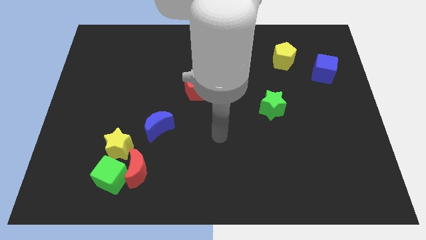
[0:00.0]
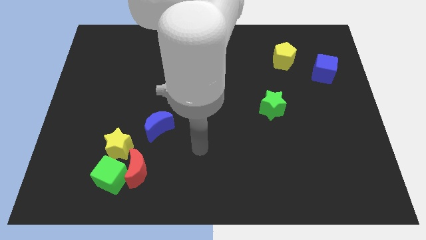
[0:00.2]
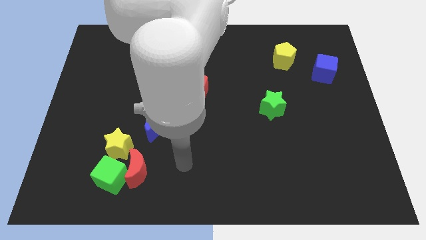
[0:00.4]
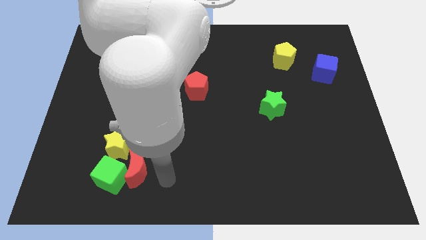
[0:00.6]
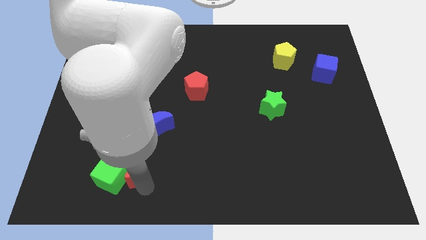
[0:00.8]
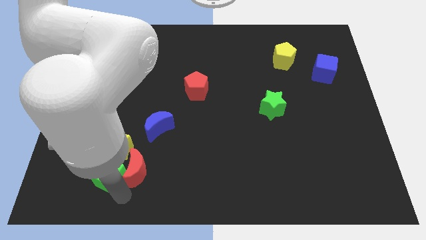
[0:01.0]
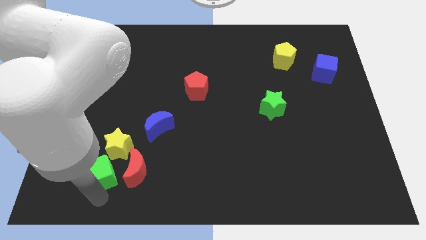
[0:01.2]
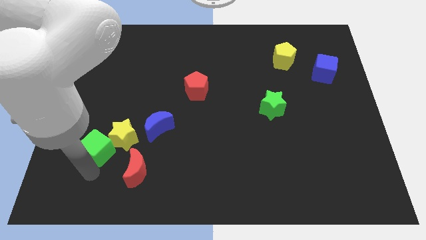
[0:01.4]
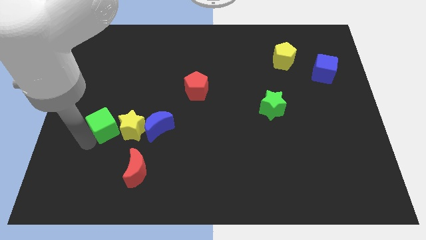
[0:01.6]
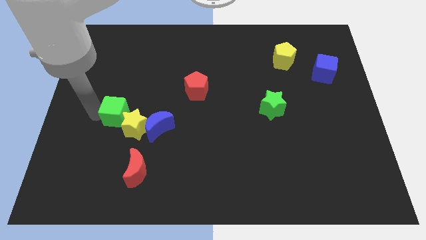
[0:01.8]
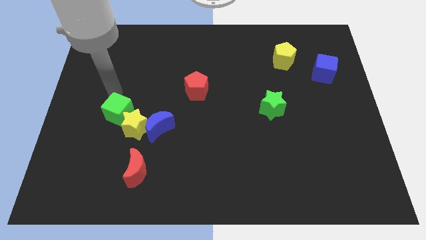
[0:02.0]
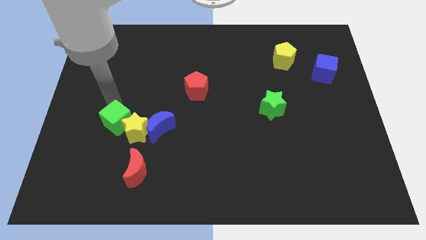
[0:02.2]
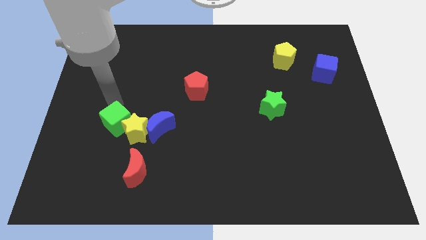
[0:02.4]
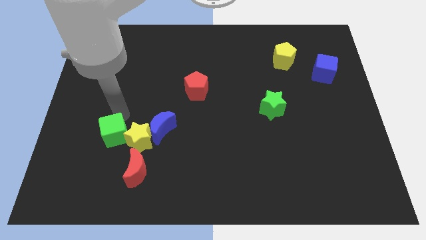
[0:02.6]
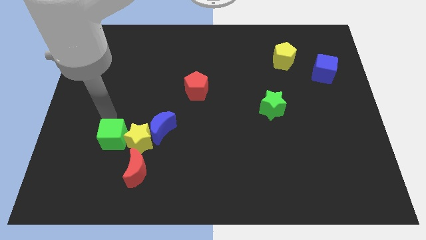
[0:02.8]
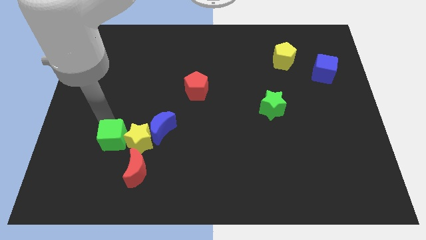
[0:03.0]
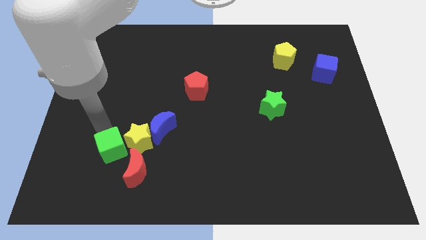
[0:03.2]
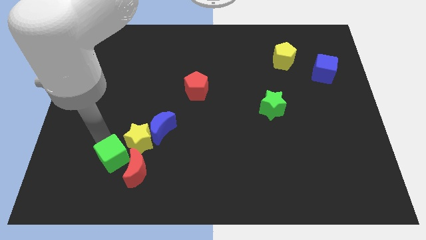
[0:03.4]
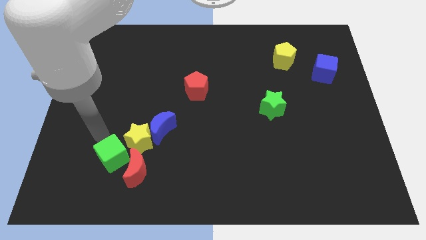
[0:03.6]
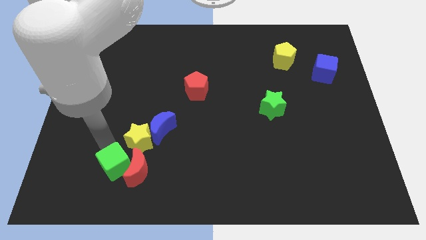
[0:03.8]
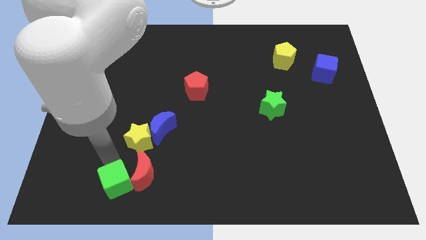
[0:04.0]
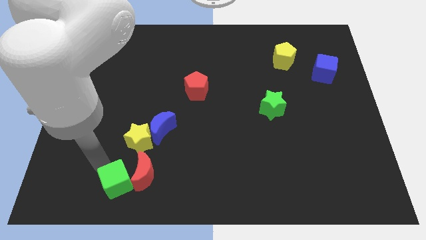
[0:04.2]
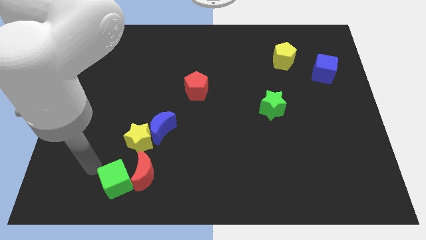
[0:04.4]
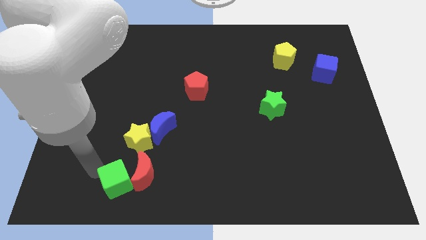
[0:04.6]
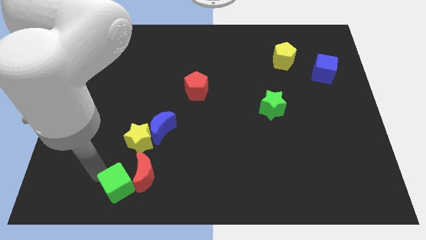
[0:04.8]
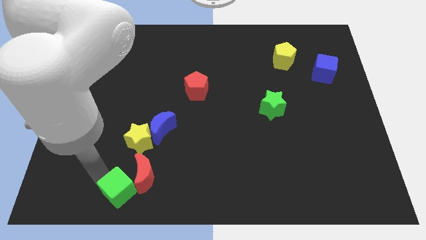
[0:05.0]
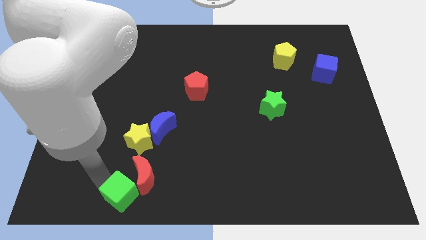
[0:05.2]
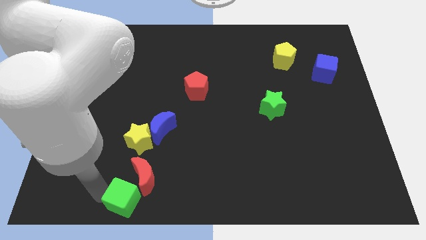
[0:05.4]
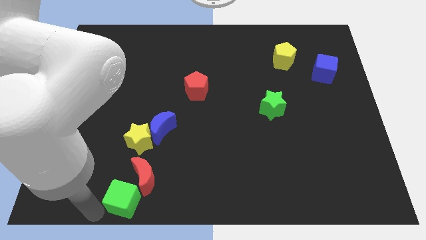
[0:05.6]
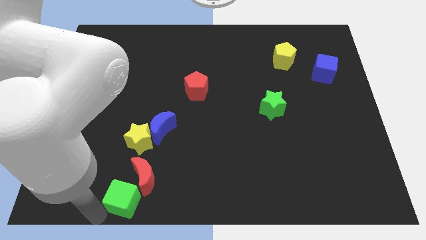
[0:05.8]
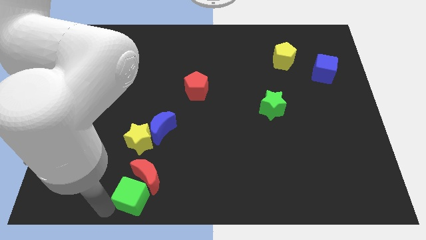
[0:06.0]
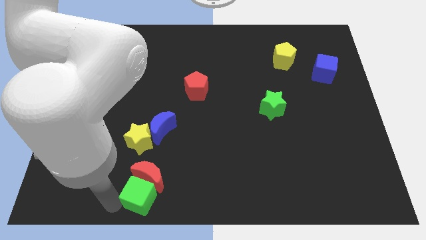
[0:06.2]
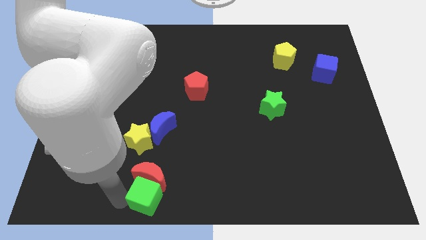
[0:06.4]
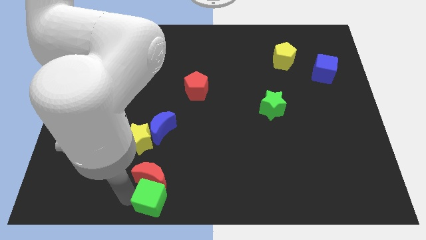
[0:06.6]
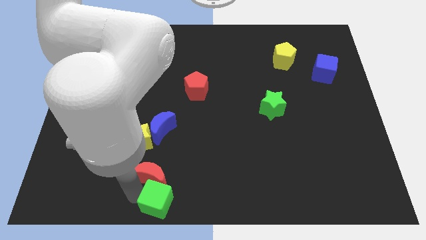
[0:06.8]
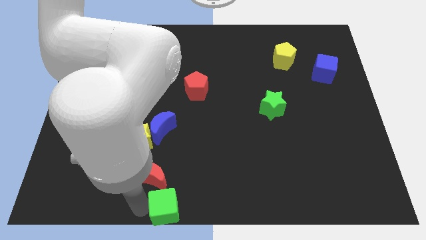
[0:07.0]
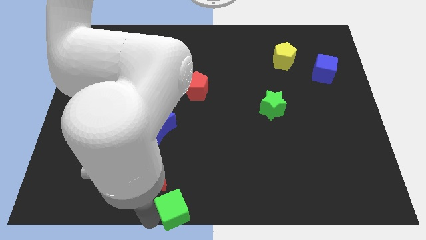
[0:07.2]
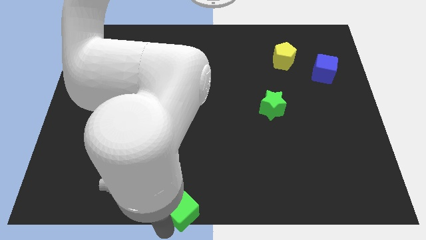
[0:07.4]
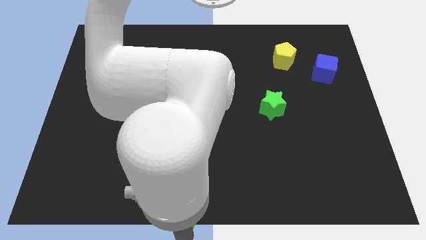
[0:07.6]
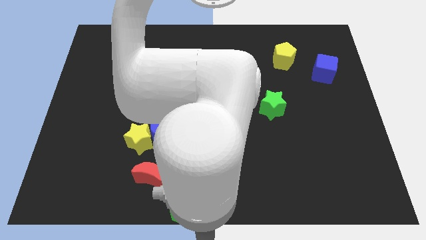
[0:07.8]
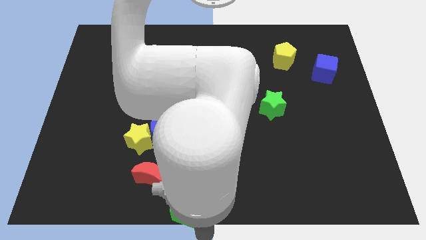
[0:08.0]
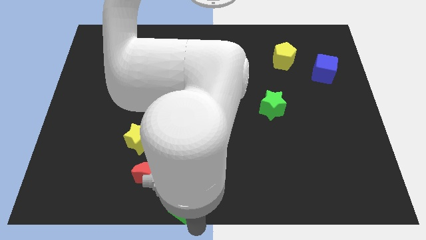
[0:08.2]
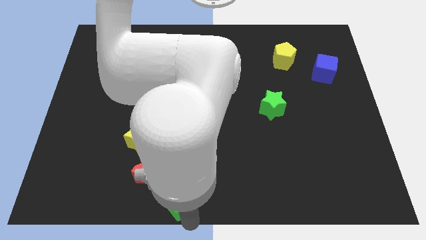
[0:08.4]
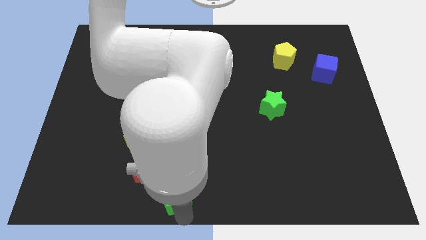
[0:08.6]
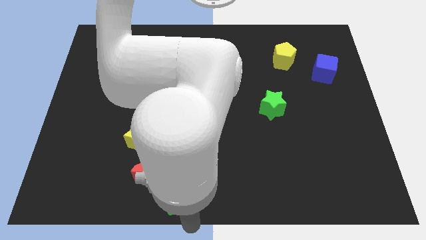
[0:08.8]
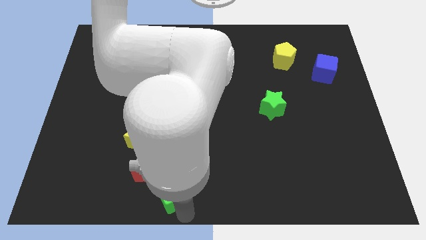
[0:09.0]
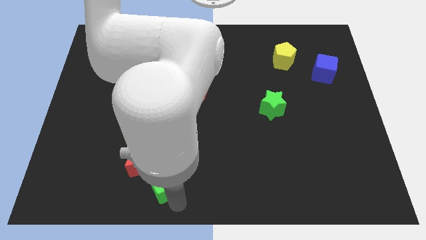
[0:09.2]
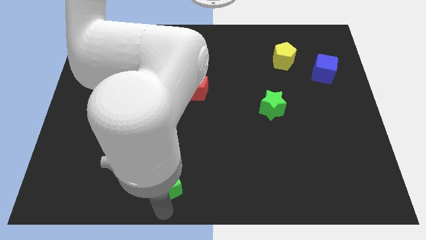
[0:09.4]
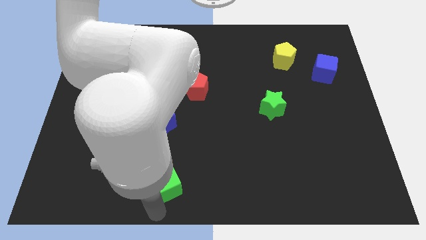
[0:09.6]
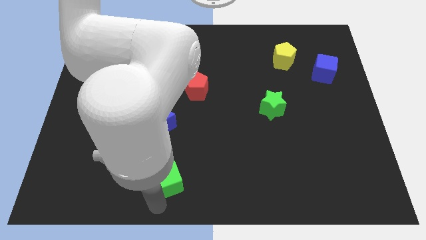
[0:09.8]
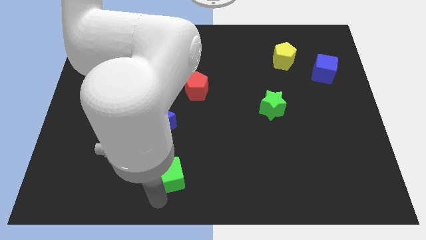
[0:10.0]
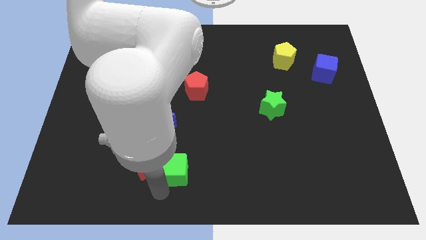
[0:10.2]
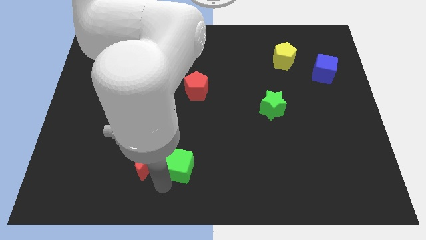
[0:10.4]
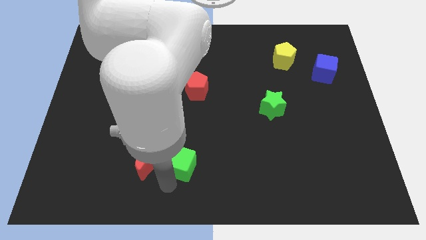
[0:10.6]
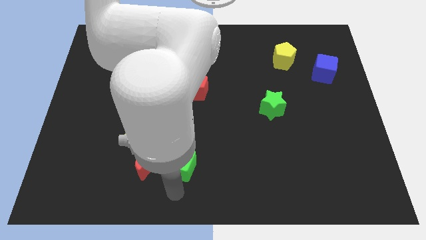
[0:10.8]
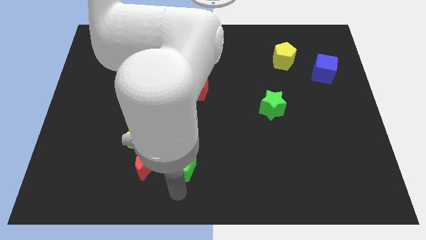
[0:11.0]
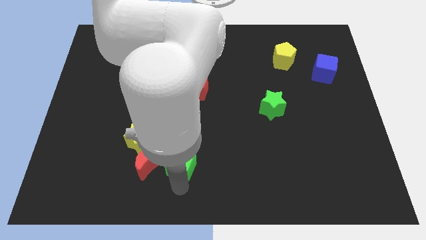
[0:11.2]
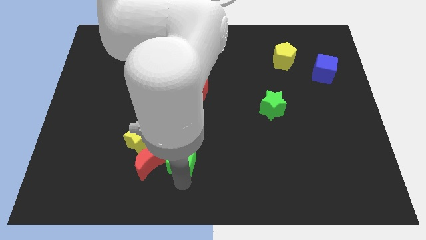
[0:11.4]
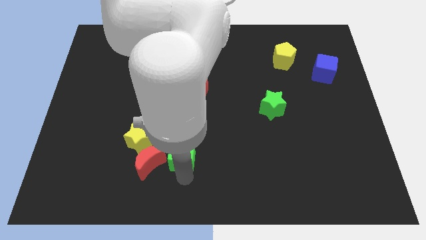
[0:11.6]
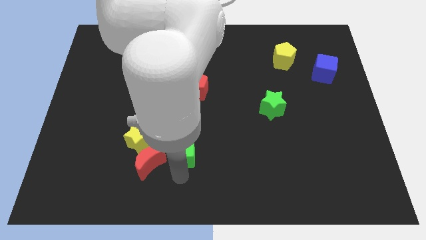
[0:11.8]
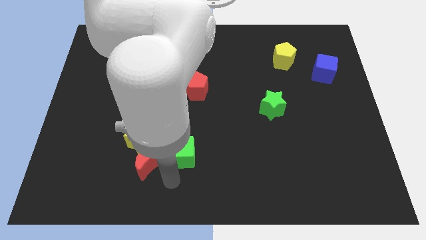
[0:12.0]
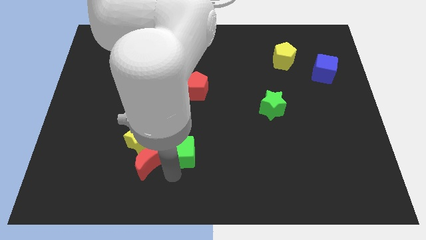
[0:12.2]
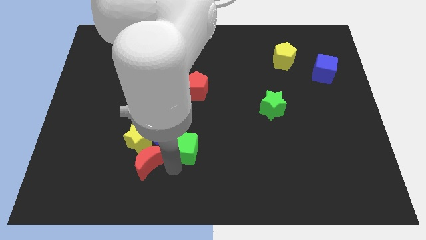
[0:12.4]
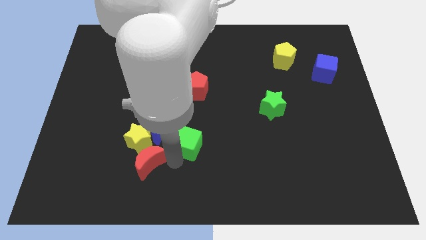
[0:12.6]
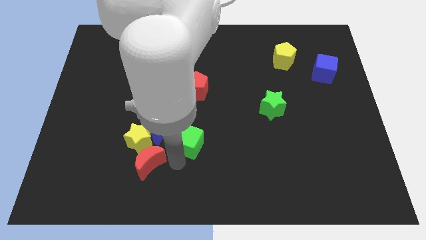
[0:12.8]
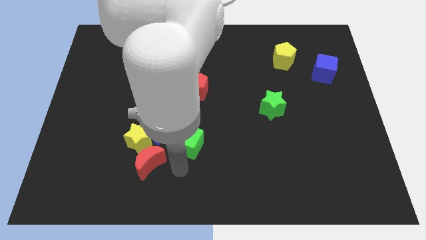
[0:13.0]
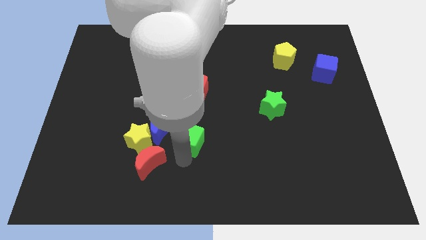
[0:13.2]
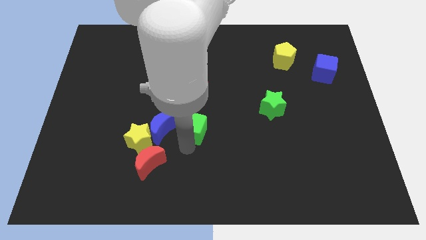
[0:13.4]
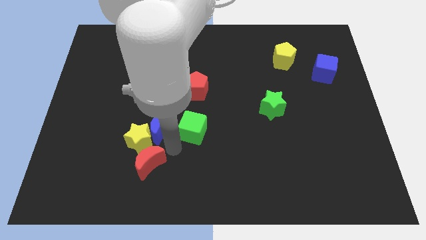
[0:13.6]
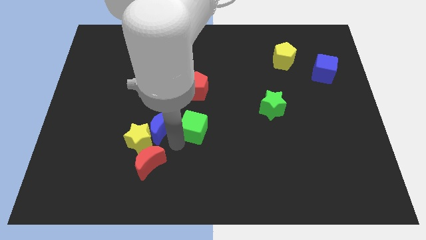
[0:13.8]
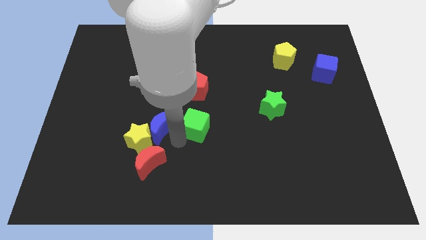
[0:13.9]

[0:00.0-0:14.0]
move the green cube up and right

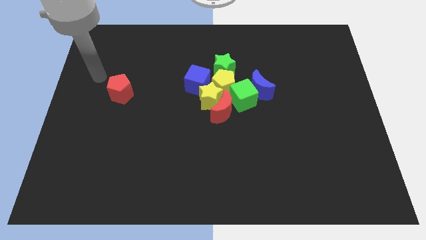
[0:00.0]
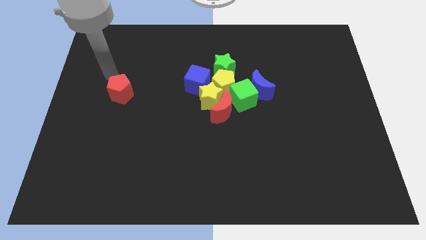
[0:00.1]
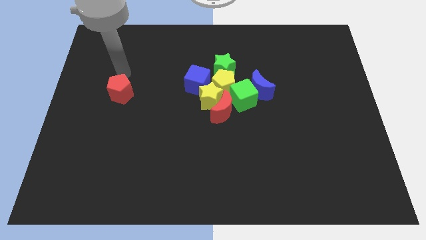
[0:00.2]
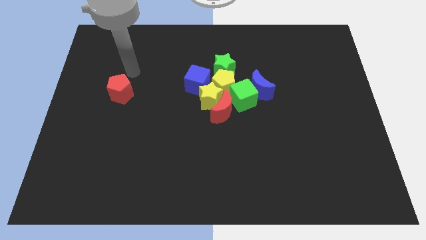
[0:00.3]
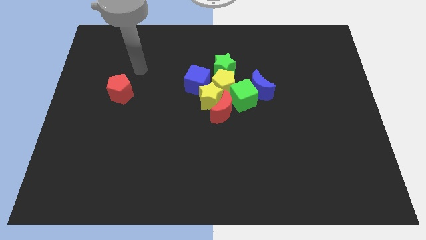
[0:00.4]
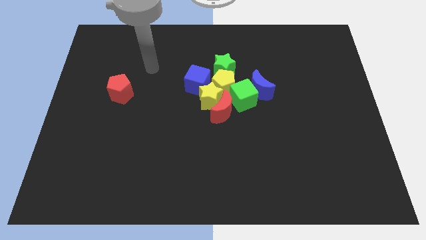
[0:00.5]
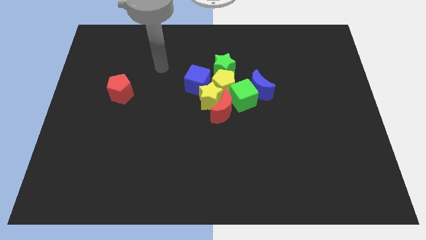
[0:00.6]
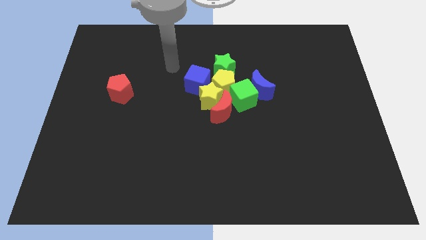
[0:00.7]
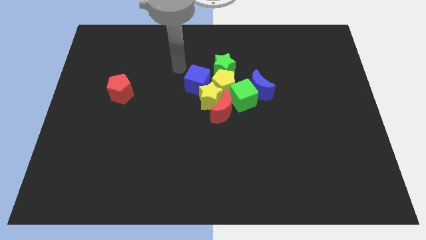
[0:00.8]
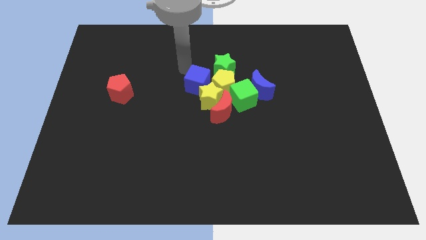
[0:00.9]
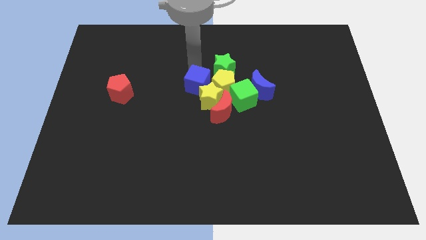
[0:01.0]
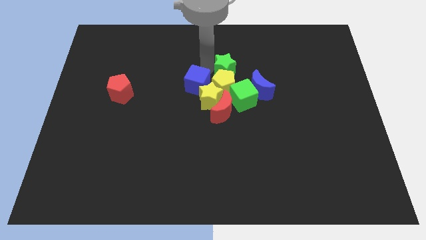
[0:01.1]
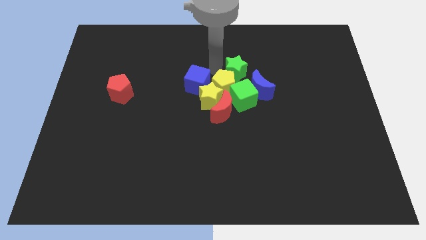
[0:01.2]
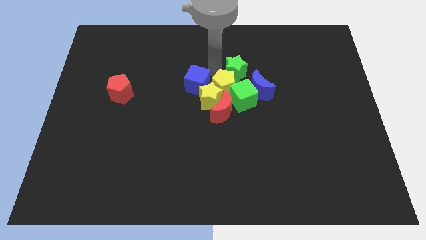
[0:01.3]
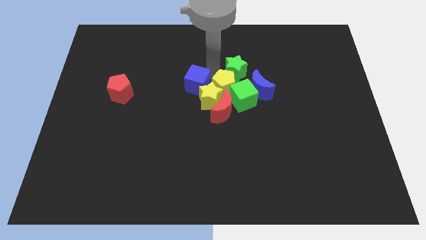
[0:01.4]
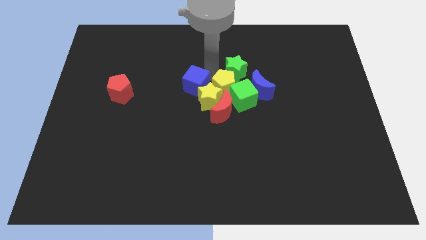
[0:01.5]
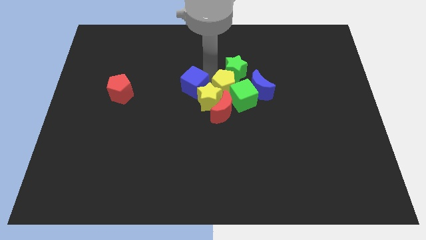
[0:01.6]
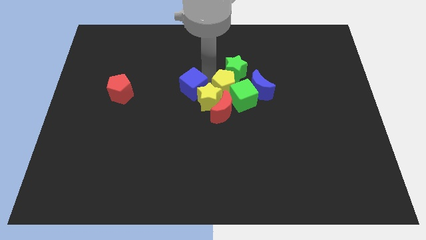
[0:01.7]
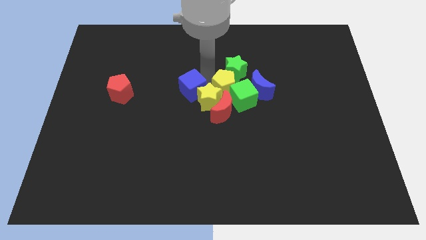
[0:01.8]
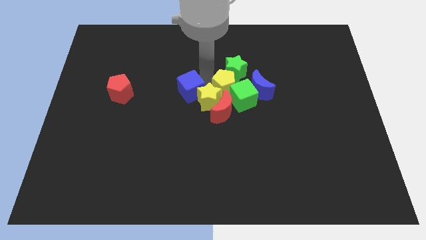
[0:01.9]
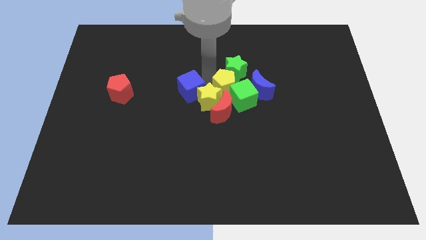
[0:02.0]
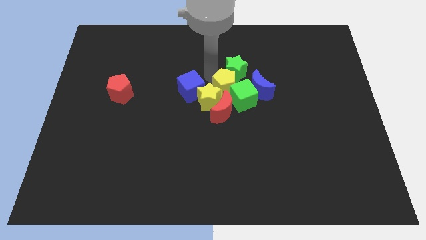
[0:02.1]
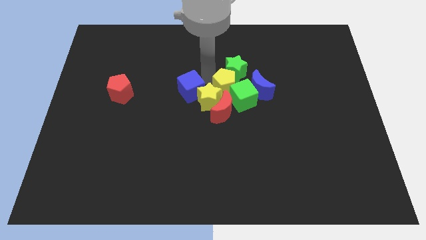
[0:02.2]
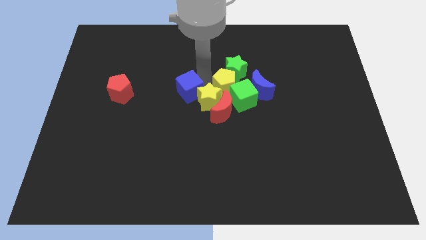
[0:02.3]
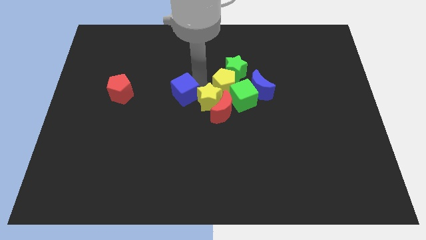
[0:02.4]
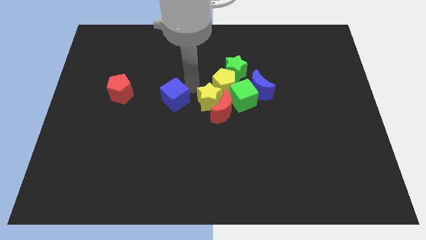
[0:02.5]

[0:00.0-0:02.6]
slide the blue cube slightly diagonally downwards and to the left
